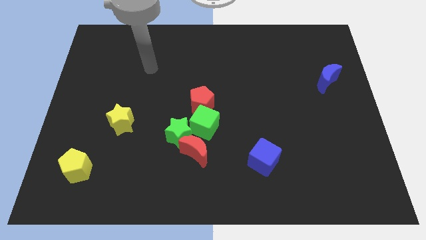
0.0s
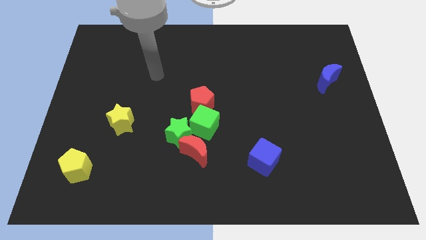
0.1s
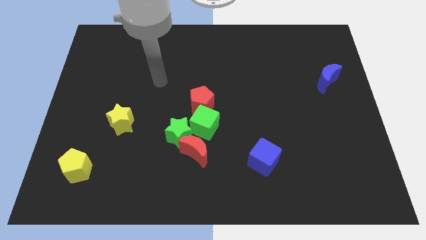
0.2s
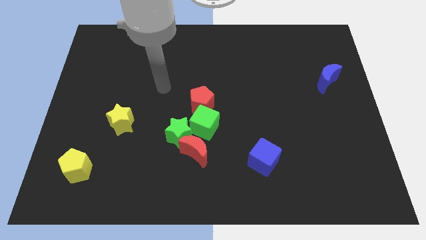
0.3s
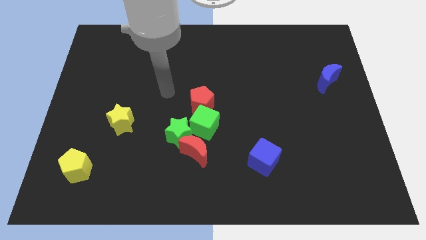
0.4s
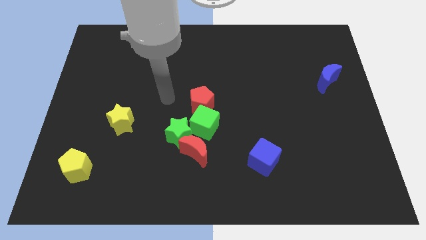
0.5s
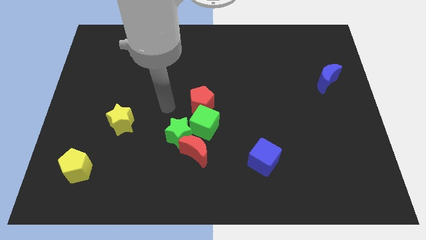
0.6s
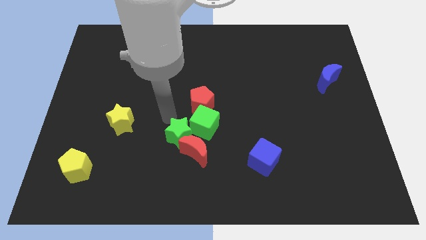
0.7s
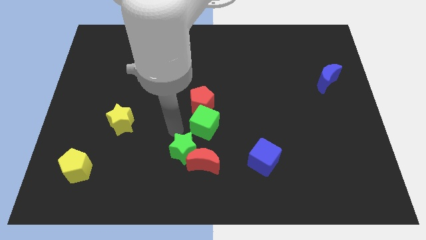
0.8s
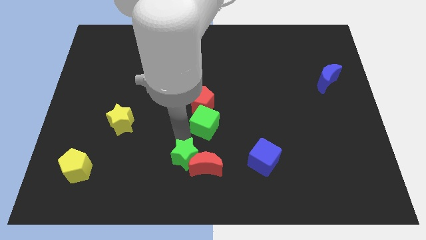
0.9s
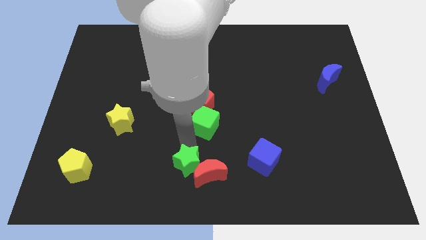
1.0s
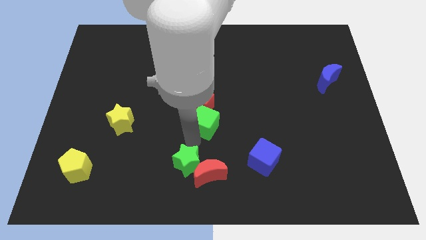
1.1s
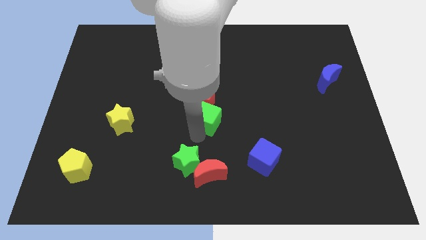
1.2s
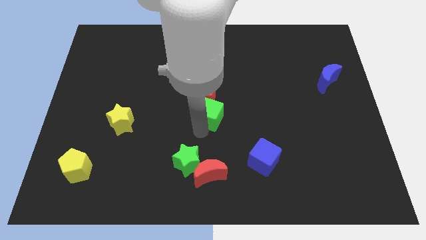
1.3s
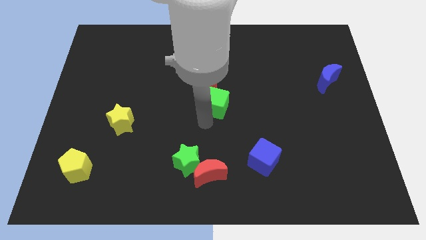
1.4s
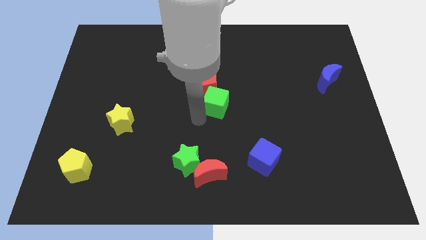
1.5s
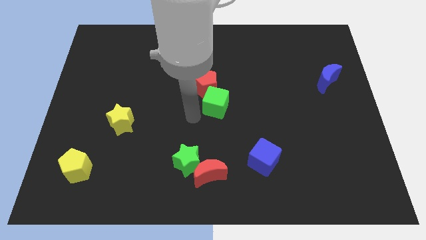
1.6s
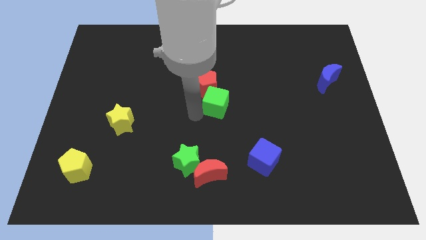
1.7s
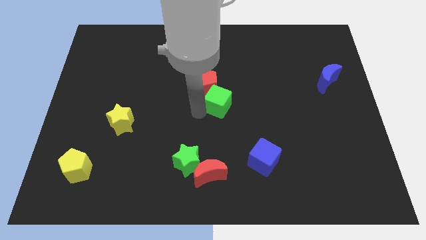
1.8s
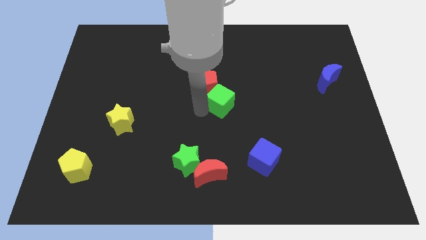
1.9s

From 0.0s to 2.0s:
push the green cube up and right a bit

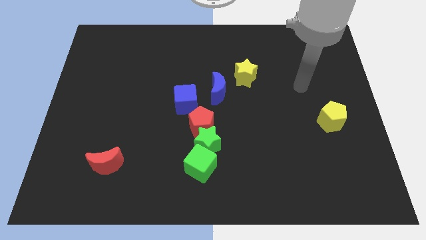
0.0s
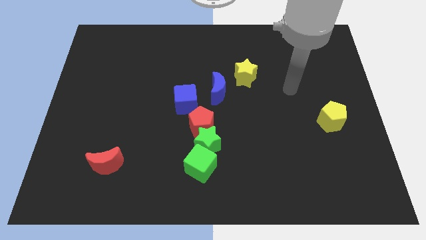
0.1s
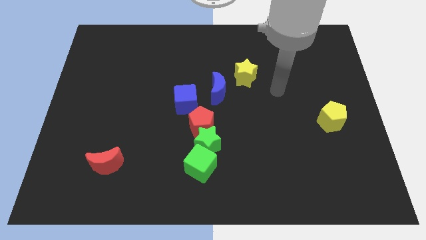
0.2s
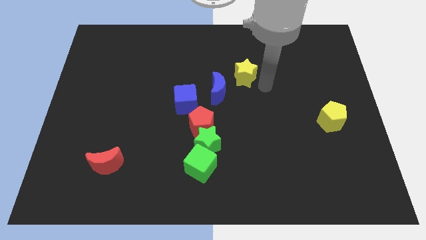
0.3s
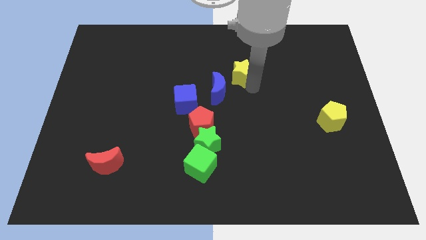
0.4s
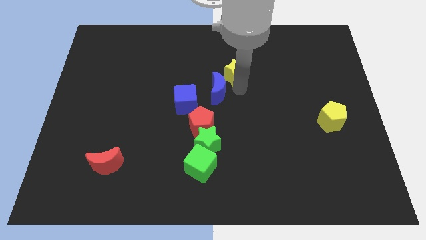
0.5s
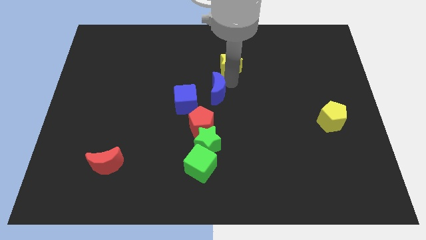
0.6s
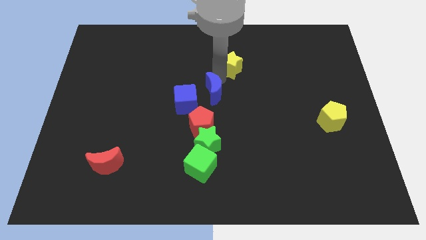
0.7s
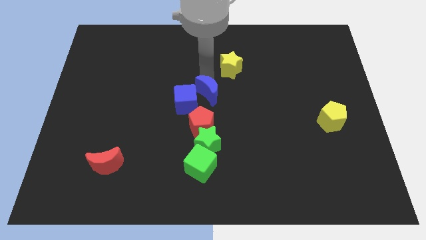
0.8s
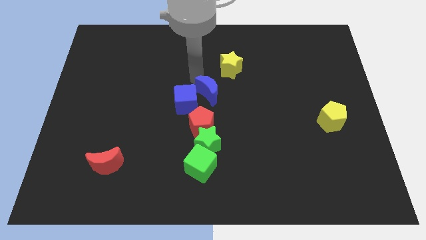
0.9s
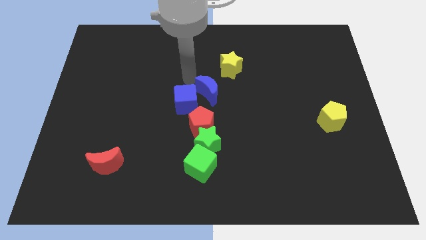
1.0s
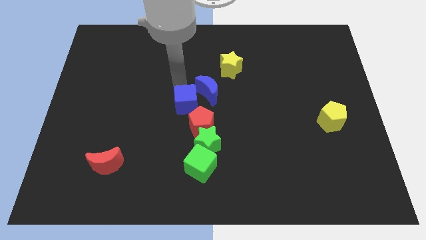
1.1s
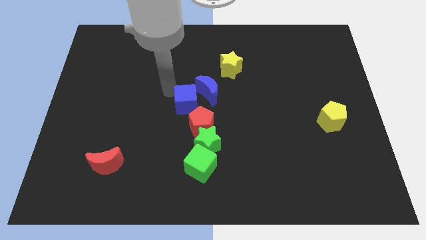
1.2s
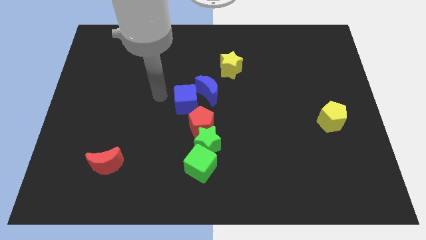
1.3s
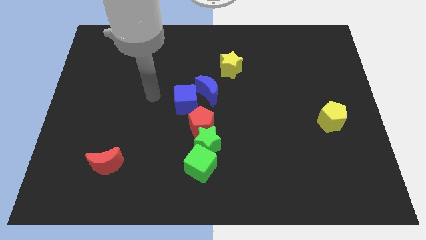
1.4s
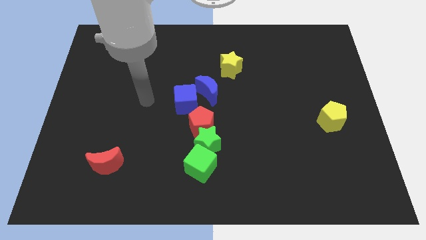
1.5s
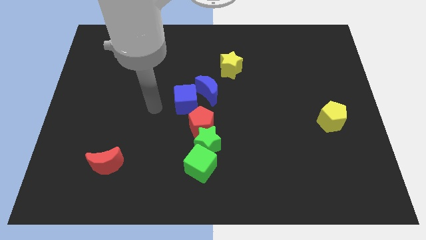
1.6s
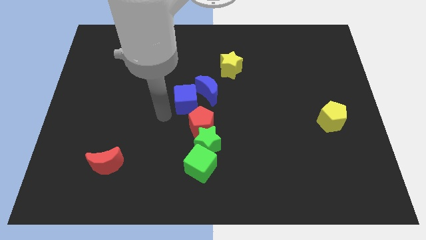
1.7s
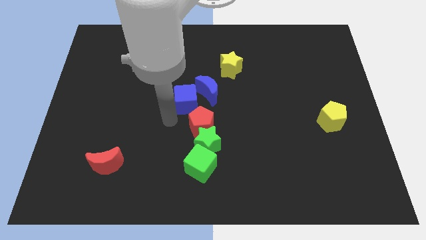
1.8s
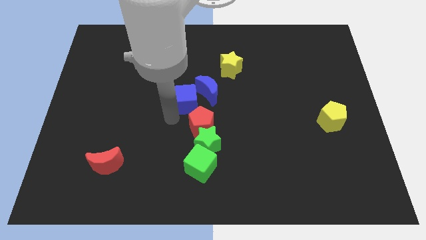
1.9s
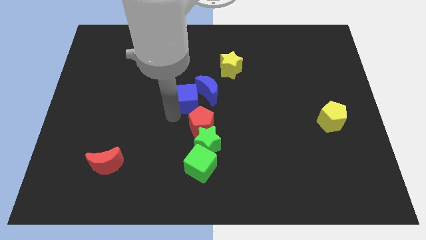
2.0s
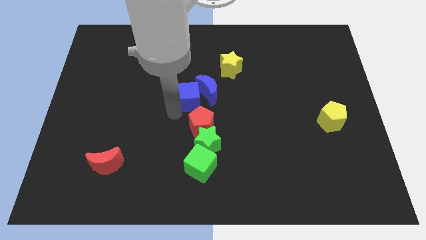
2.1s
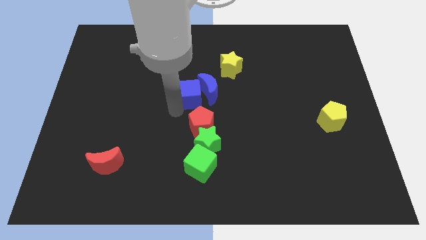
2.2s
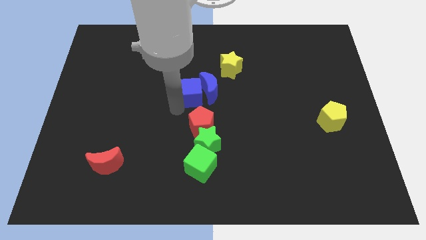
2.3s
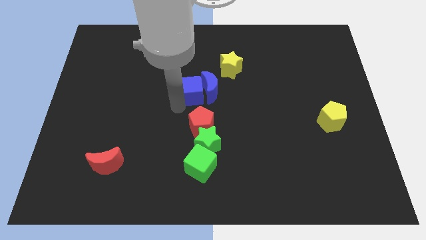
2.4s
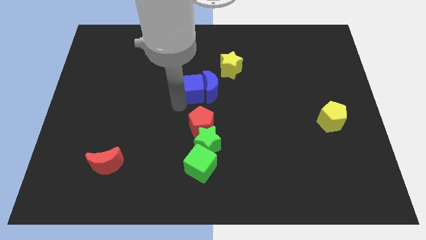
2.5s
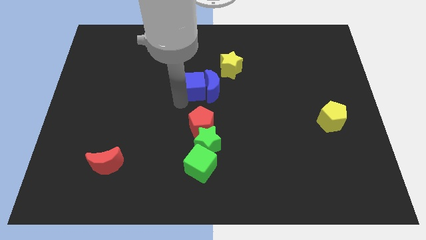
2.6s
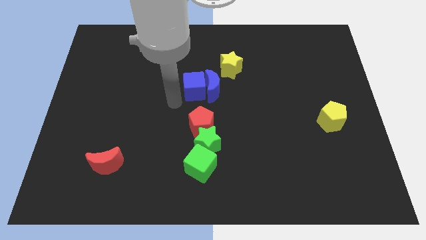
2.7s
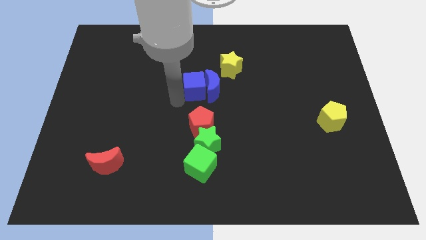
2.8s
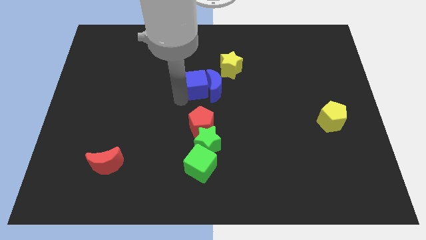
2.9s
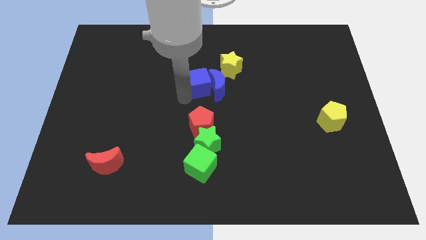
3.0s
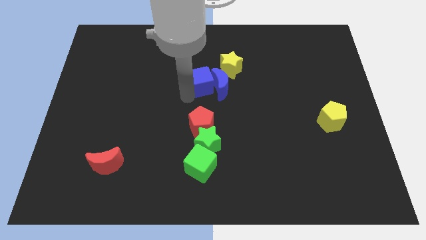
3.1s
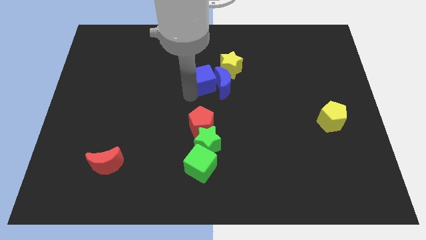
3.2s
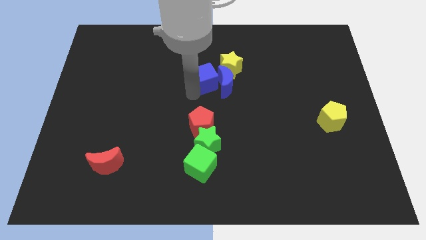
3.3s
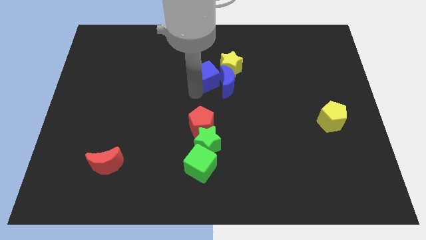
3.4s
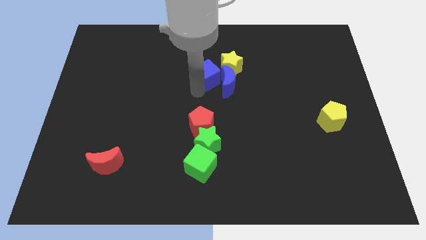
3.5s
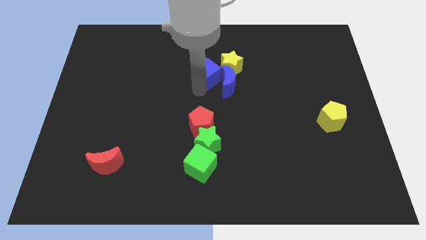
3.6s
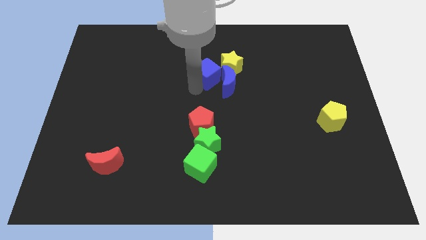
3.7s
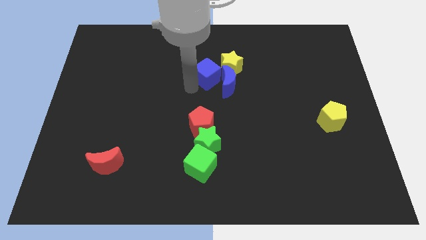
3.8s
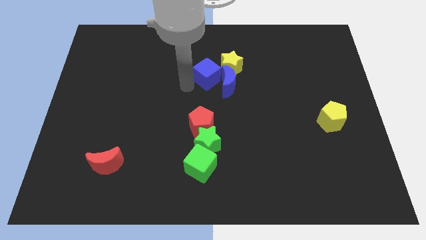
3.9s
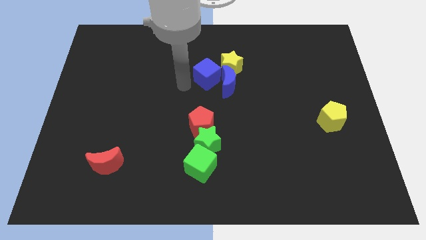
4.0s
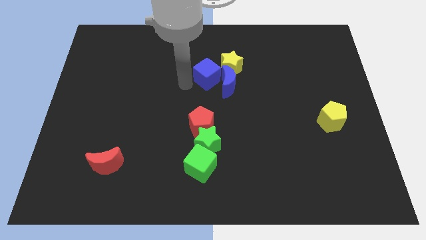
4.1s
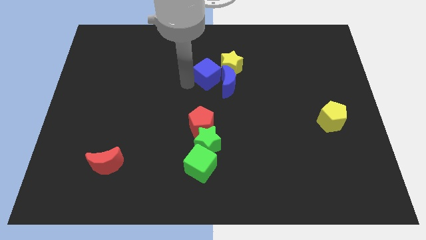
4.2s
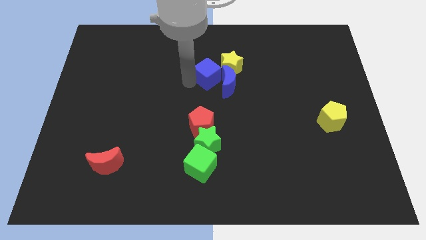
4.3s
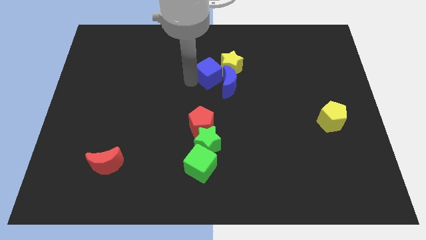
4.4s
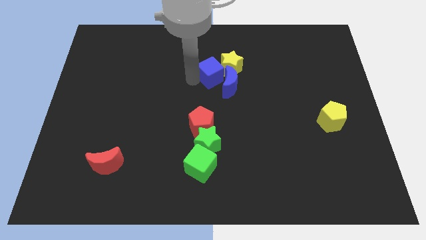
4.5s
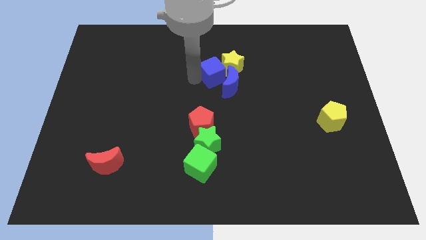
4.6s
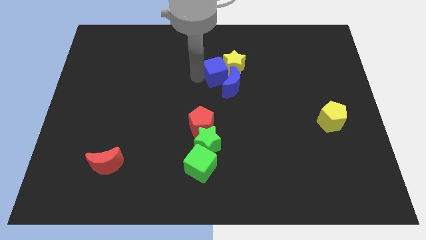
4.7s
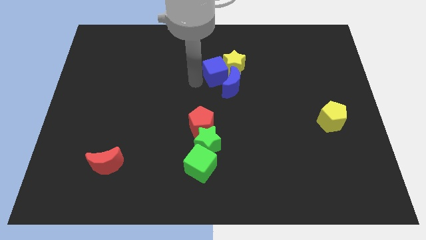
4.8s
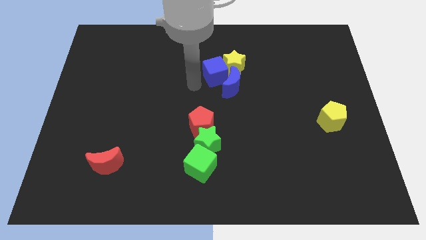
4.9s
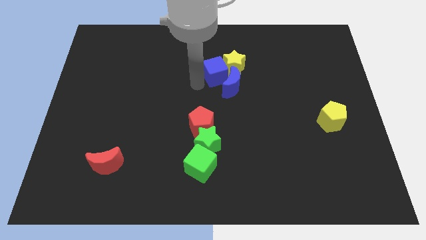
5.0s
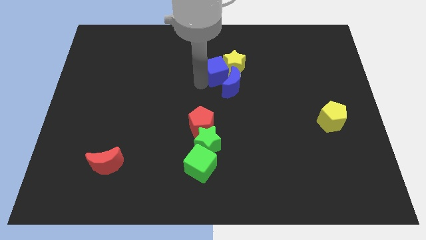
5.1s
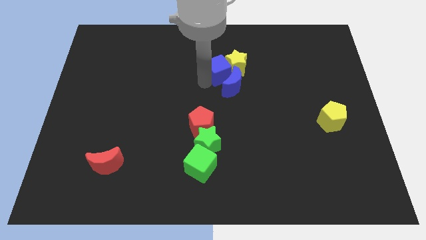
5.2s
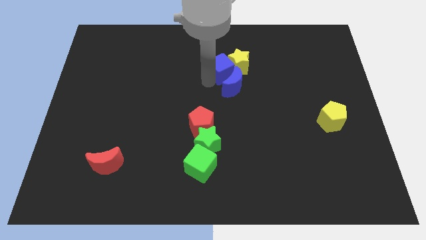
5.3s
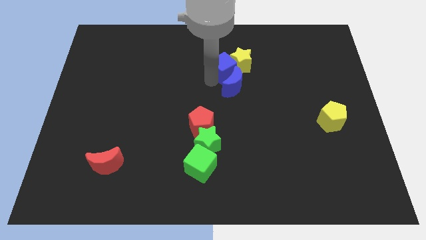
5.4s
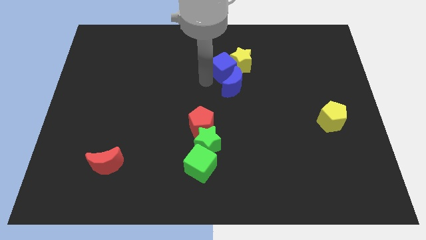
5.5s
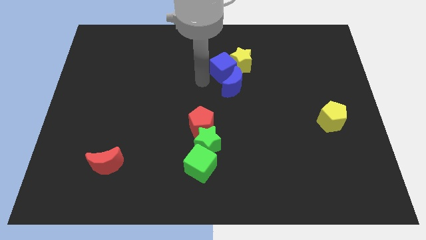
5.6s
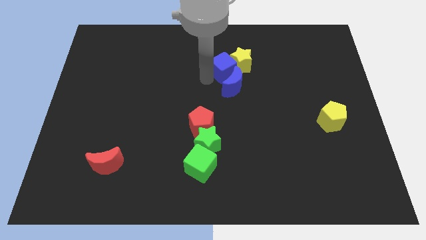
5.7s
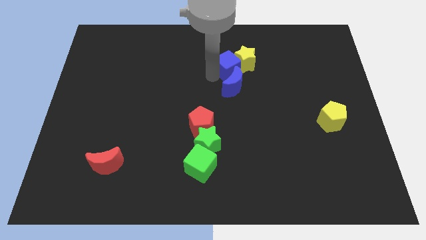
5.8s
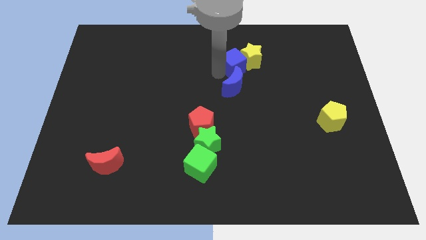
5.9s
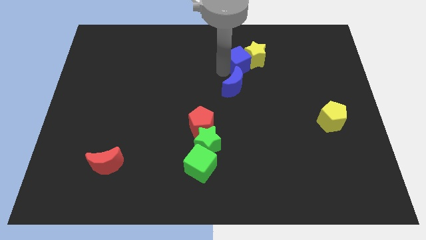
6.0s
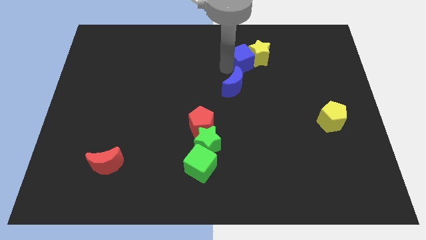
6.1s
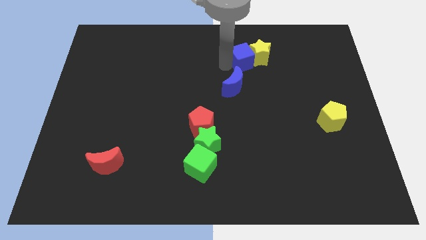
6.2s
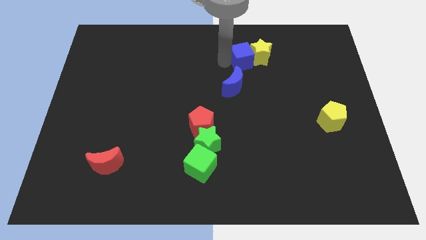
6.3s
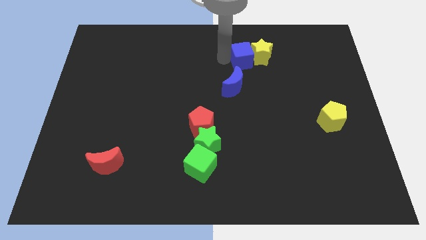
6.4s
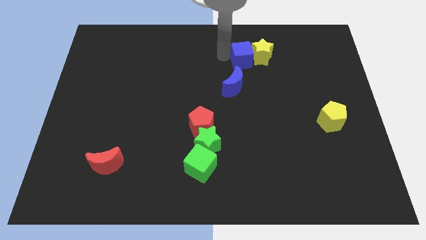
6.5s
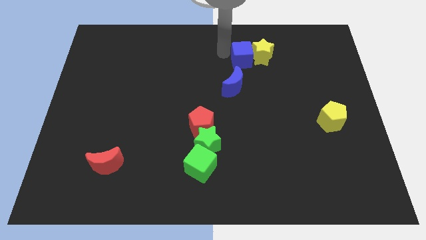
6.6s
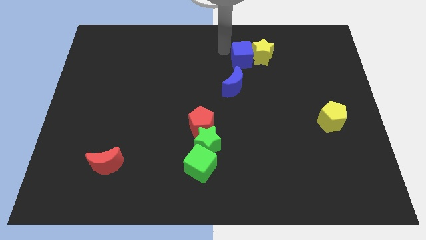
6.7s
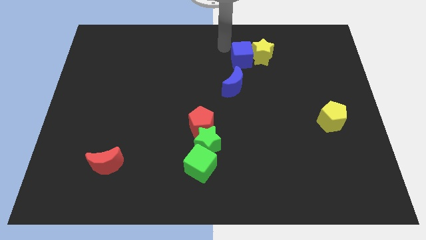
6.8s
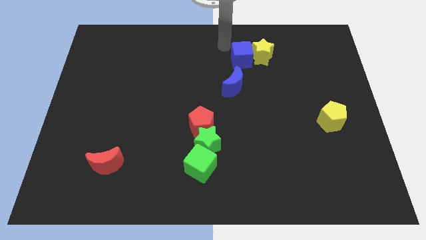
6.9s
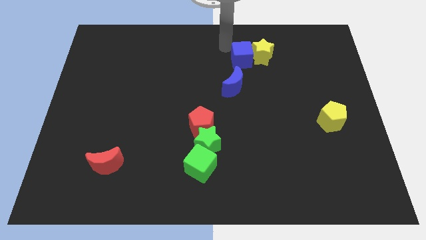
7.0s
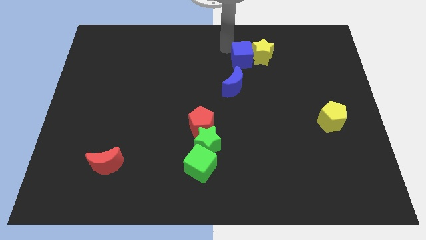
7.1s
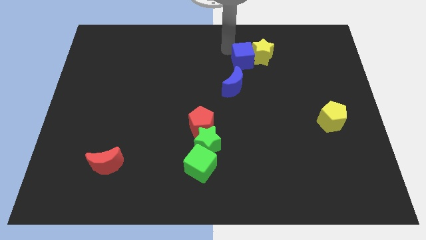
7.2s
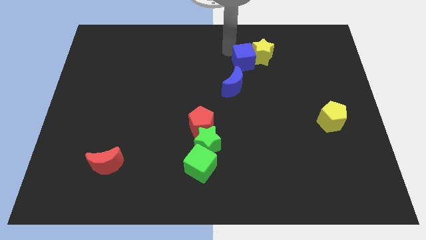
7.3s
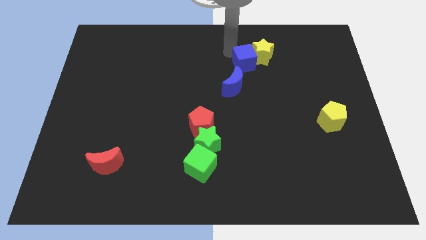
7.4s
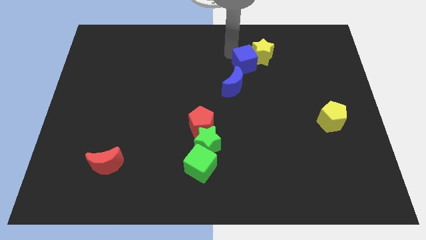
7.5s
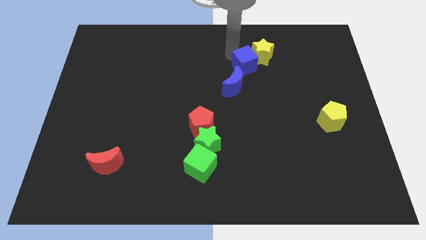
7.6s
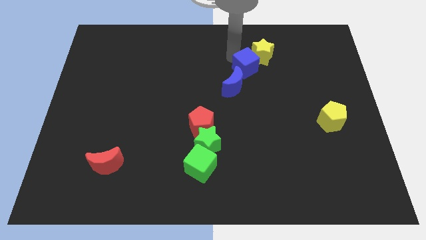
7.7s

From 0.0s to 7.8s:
move the blue cube a little bit to the right
